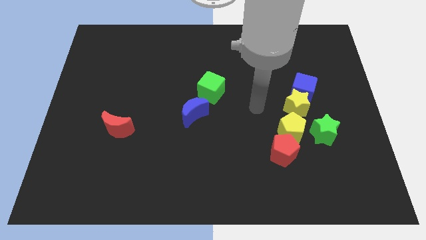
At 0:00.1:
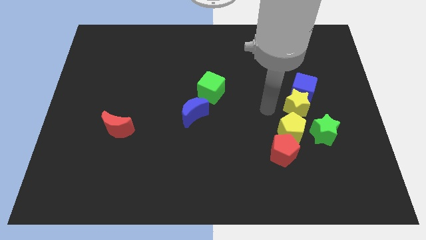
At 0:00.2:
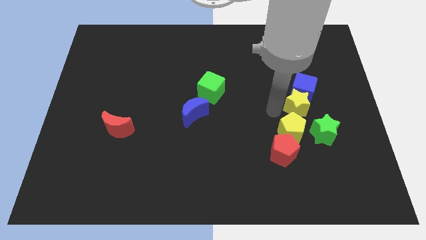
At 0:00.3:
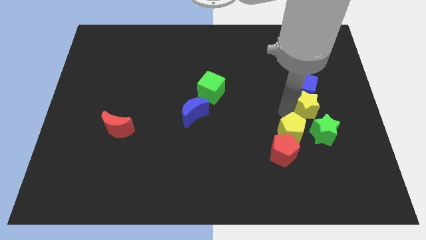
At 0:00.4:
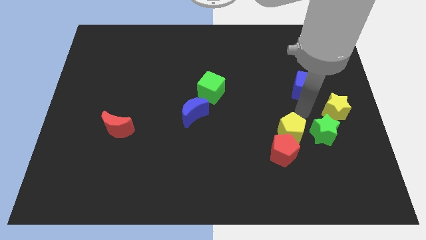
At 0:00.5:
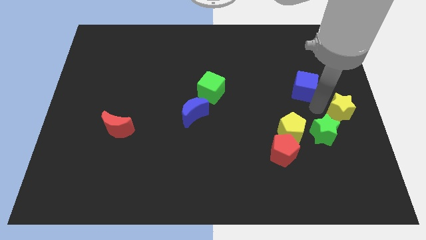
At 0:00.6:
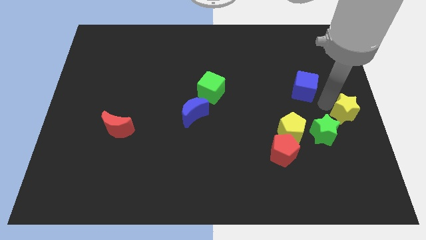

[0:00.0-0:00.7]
pull the blue cube apart from the yellow star

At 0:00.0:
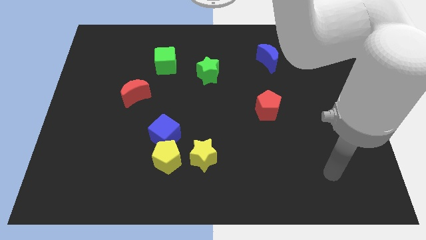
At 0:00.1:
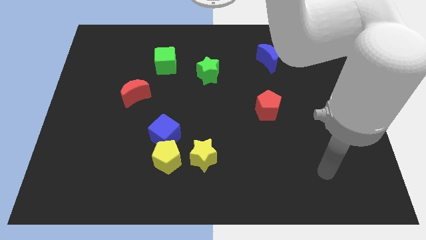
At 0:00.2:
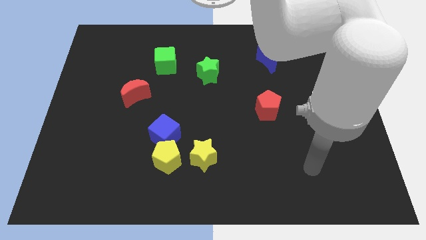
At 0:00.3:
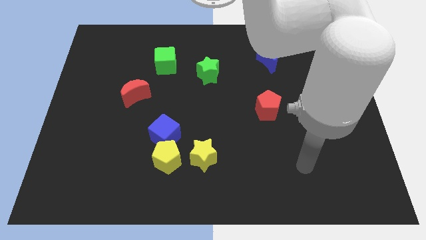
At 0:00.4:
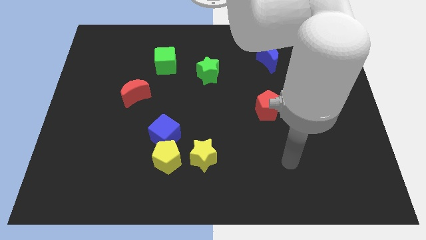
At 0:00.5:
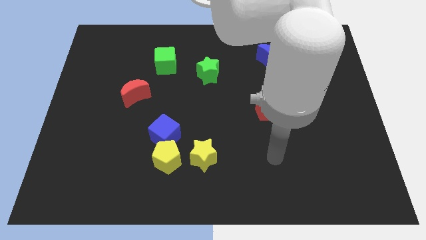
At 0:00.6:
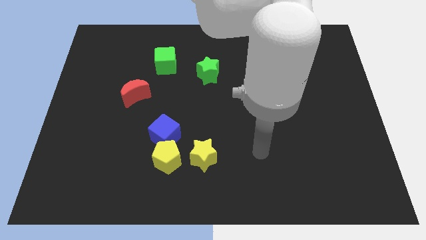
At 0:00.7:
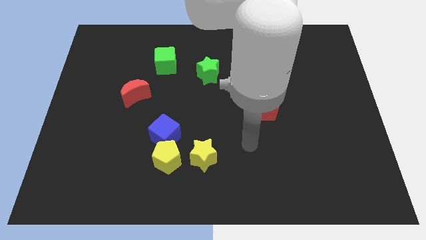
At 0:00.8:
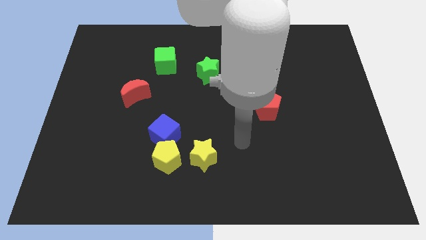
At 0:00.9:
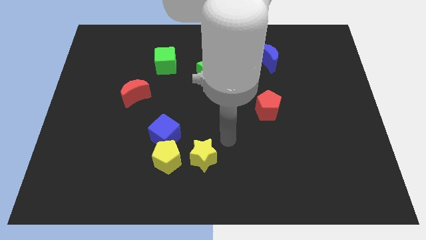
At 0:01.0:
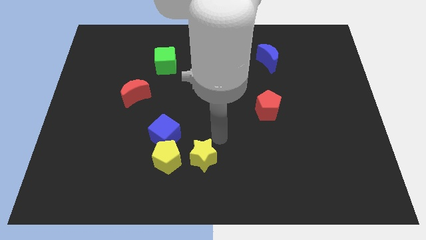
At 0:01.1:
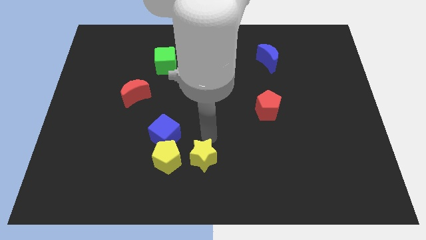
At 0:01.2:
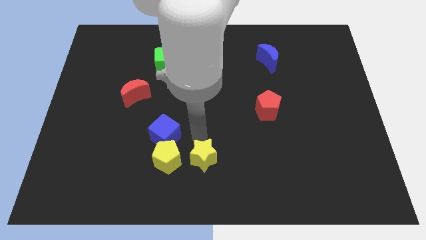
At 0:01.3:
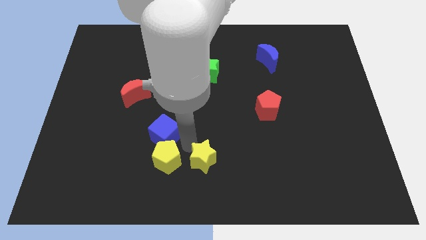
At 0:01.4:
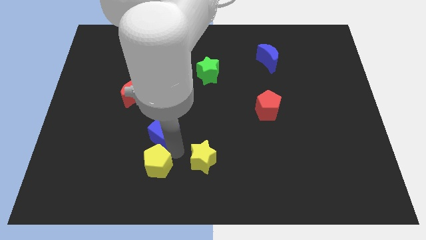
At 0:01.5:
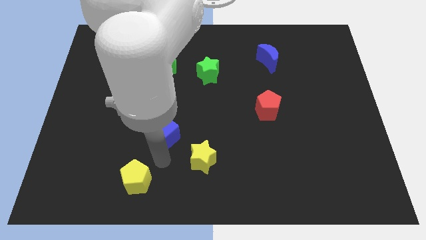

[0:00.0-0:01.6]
separate the blue cube from the yellow pentagon

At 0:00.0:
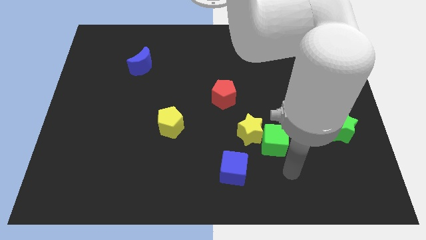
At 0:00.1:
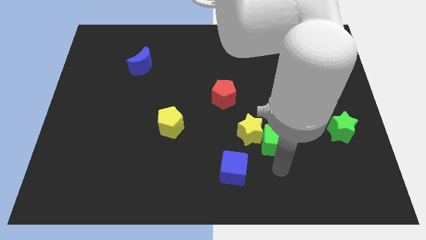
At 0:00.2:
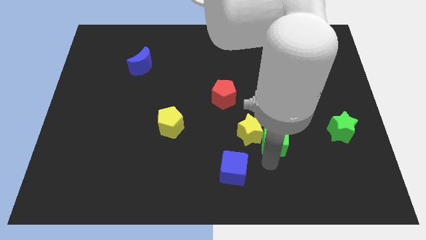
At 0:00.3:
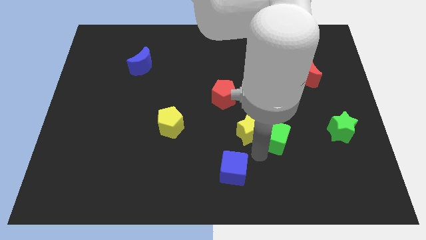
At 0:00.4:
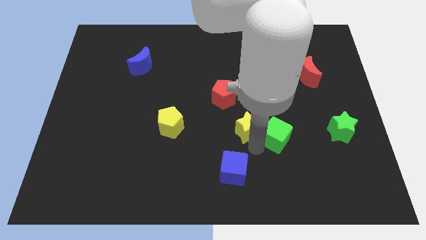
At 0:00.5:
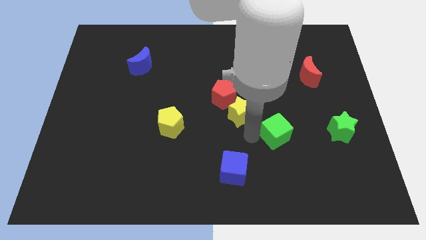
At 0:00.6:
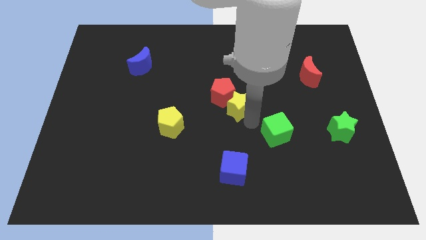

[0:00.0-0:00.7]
move the green cube away from the yellow star

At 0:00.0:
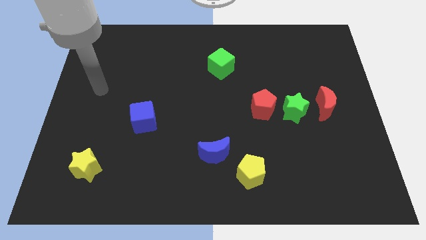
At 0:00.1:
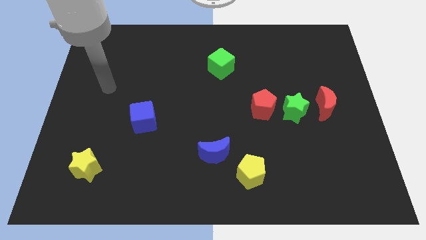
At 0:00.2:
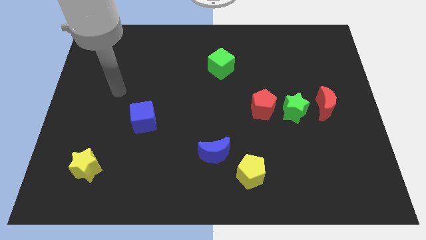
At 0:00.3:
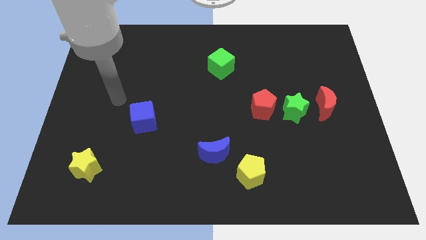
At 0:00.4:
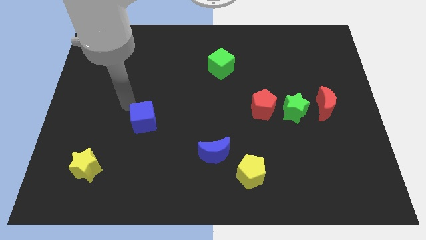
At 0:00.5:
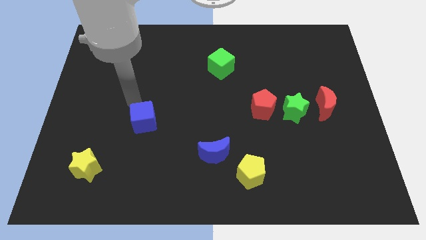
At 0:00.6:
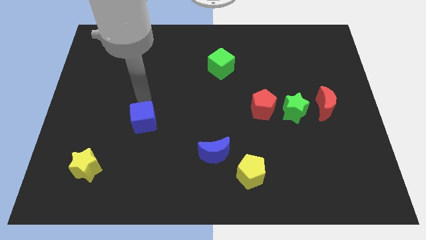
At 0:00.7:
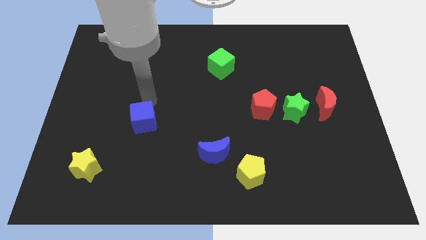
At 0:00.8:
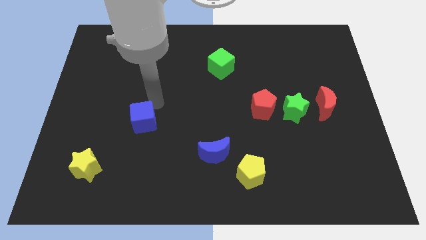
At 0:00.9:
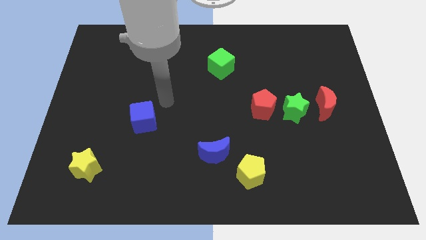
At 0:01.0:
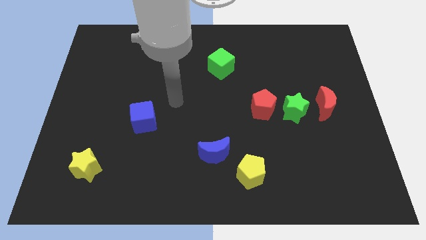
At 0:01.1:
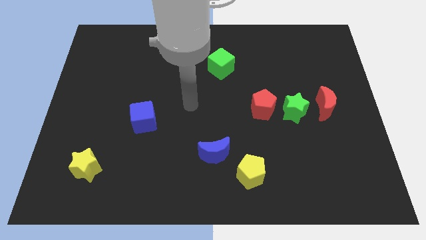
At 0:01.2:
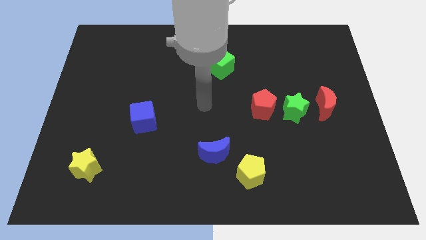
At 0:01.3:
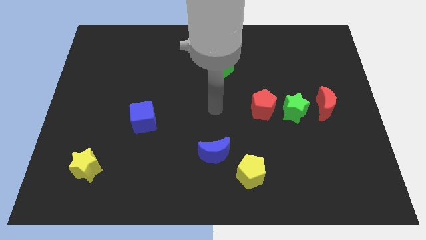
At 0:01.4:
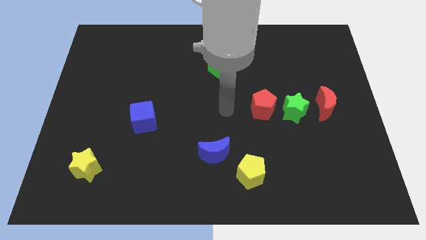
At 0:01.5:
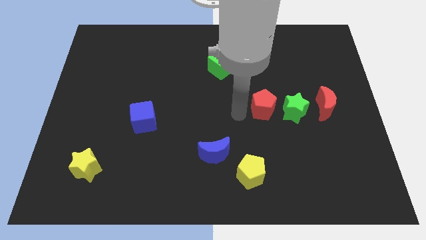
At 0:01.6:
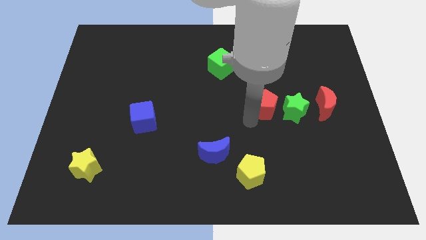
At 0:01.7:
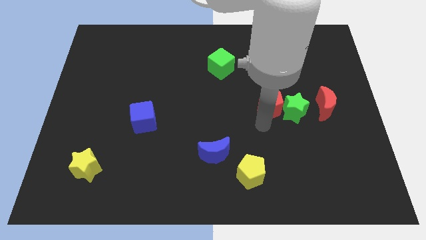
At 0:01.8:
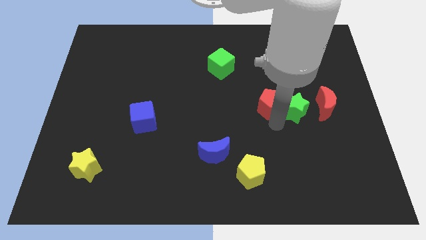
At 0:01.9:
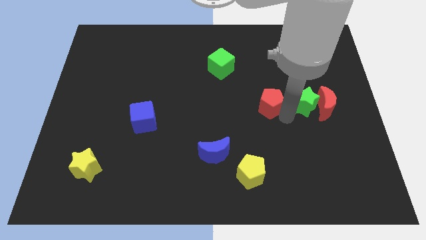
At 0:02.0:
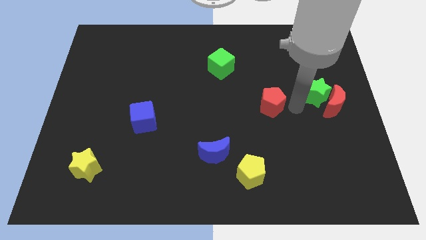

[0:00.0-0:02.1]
pull the red pentagon apart from the green star

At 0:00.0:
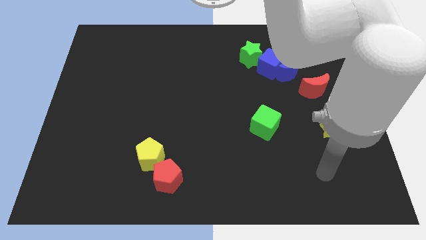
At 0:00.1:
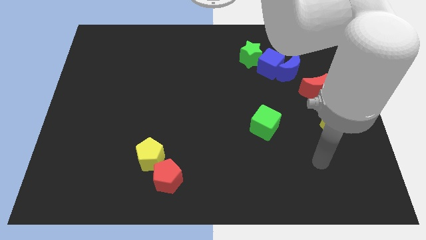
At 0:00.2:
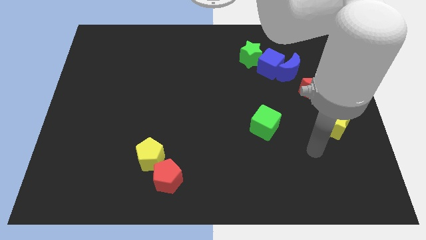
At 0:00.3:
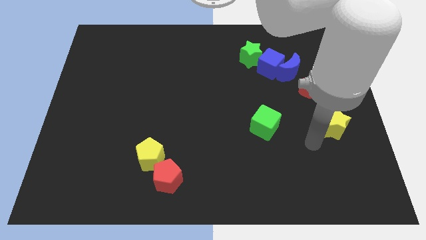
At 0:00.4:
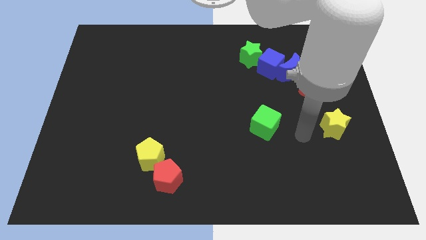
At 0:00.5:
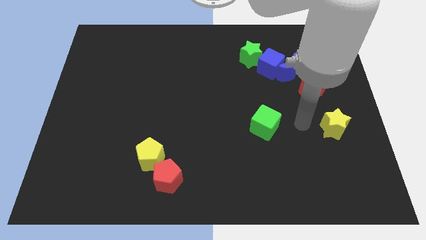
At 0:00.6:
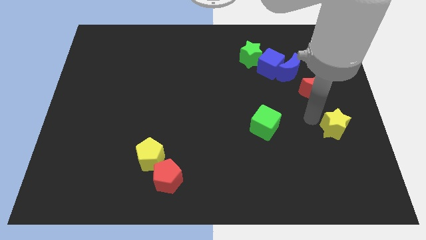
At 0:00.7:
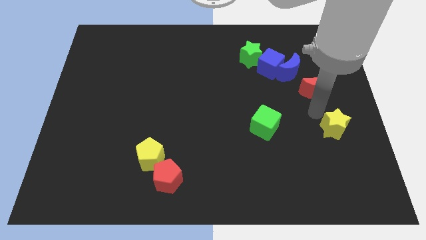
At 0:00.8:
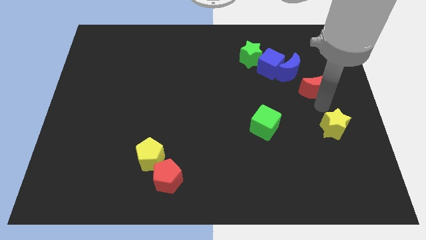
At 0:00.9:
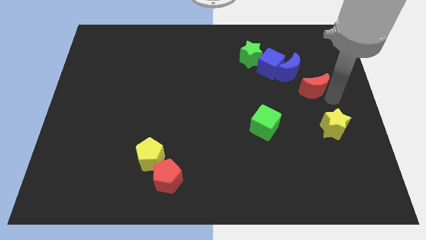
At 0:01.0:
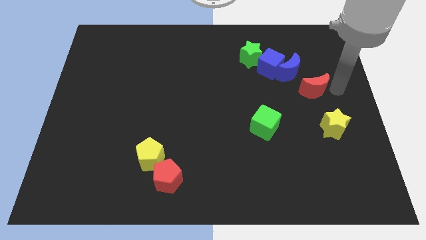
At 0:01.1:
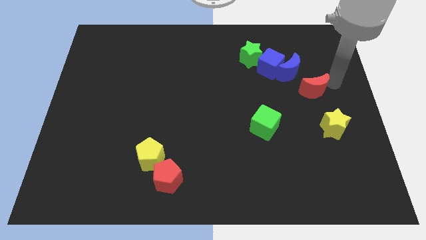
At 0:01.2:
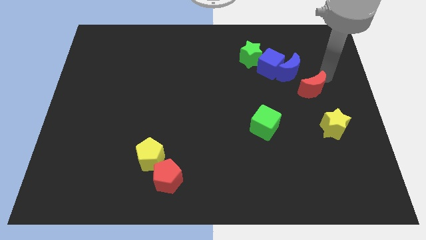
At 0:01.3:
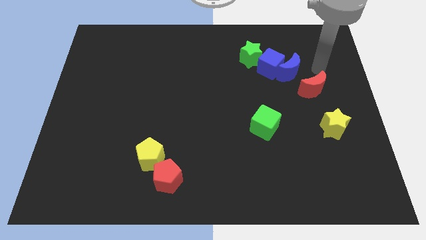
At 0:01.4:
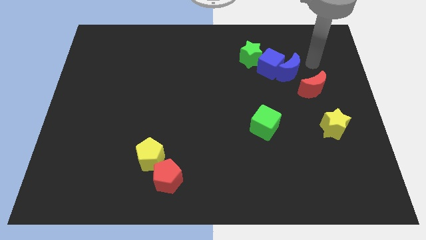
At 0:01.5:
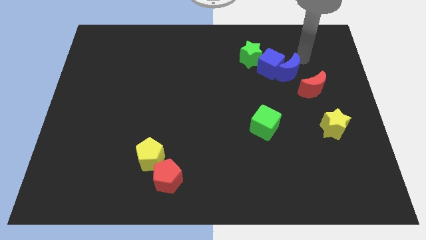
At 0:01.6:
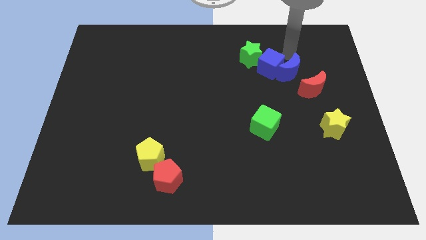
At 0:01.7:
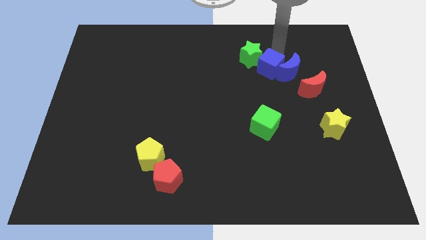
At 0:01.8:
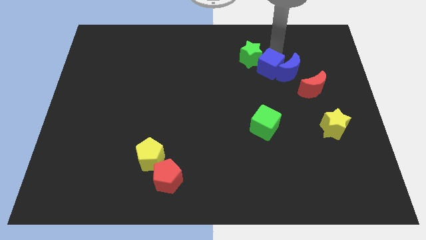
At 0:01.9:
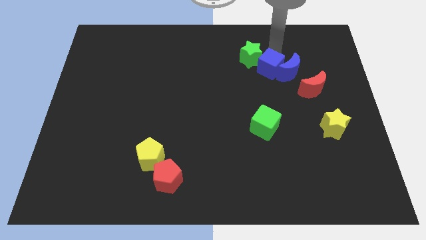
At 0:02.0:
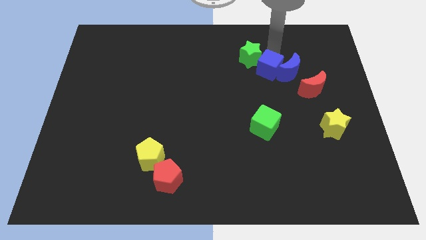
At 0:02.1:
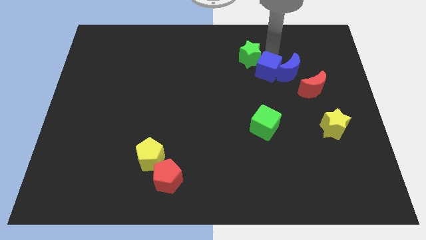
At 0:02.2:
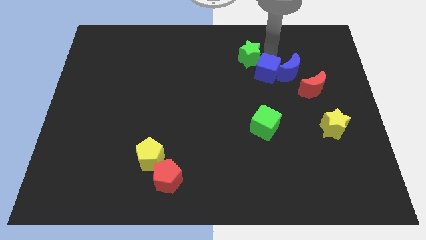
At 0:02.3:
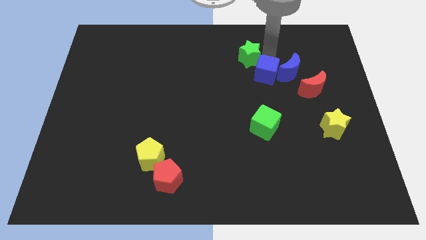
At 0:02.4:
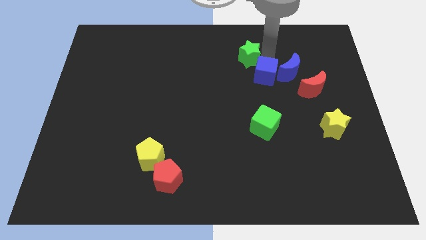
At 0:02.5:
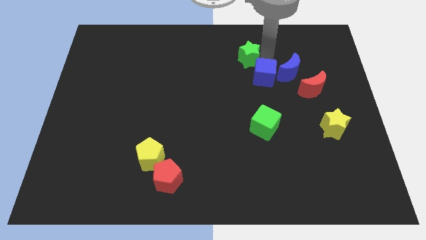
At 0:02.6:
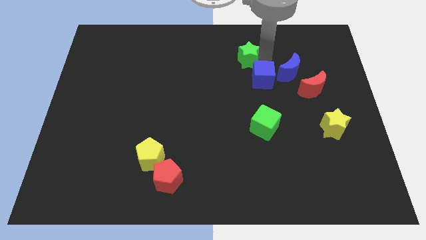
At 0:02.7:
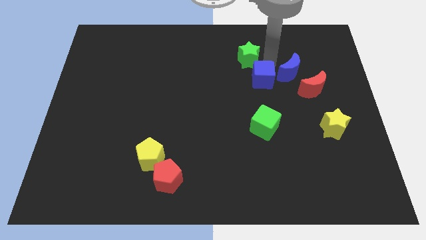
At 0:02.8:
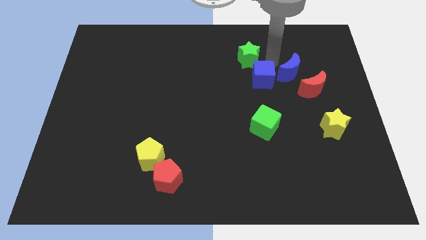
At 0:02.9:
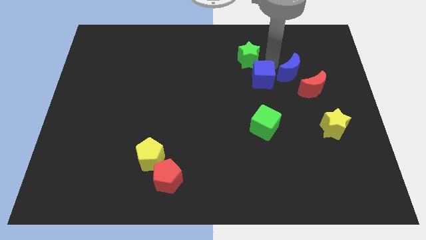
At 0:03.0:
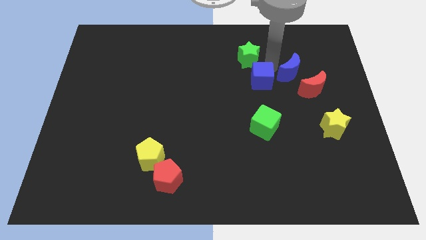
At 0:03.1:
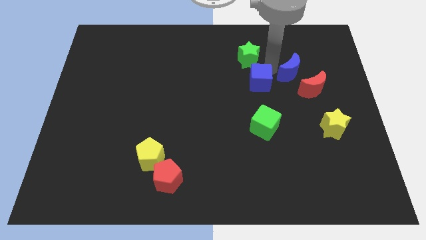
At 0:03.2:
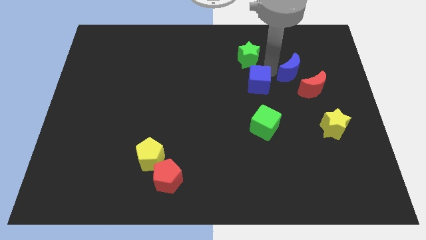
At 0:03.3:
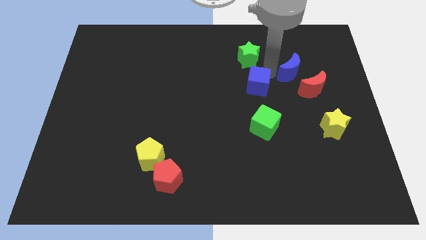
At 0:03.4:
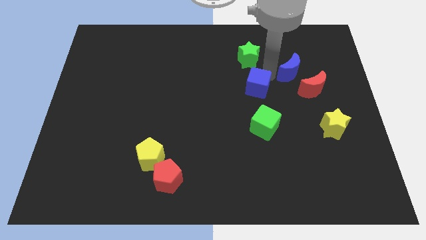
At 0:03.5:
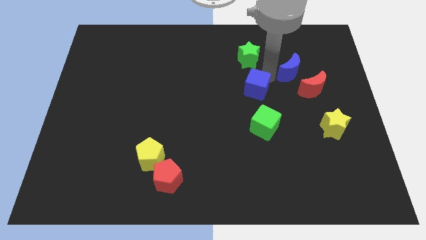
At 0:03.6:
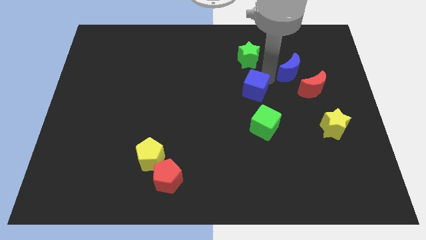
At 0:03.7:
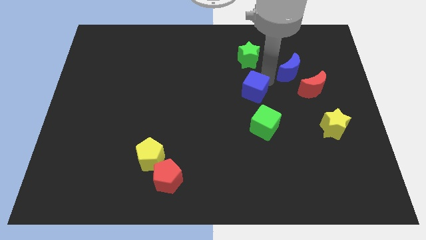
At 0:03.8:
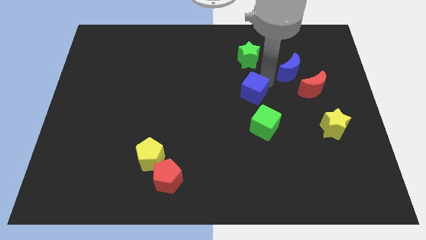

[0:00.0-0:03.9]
separate the blue cube from the blue moon and green star

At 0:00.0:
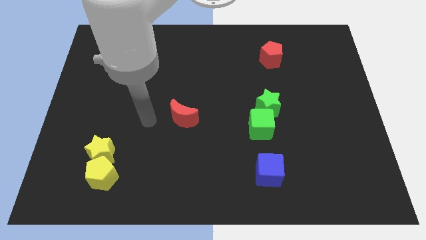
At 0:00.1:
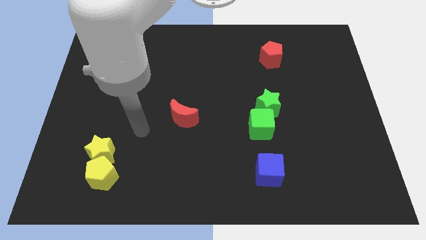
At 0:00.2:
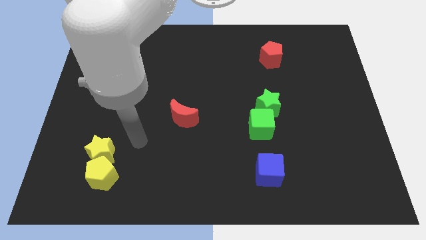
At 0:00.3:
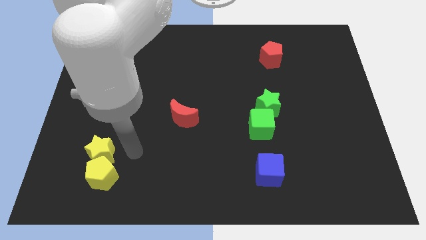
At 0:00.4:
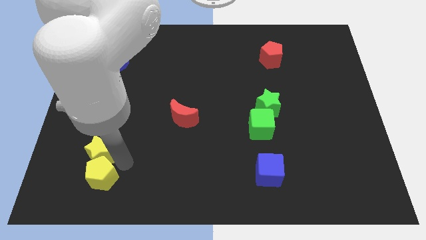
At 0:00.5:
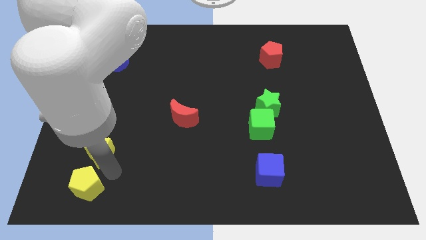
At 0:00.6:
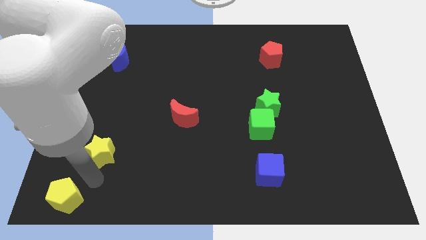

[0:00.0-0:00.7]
separate the yellow star from the yellow pentagon
